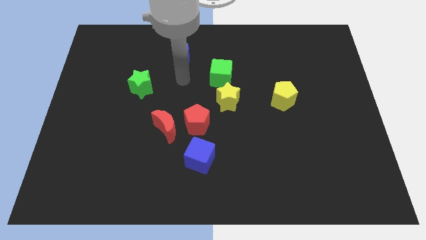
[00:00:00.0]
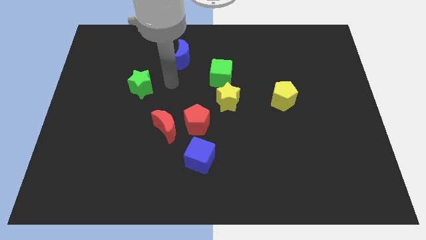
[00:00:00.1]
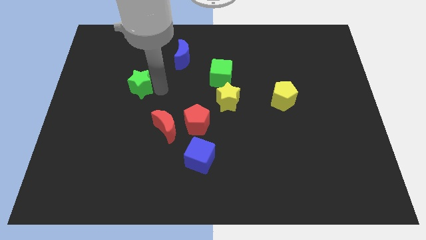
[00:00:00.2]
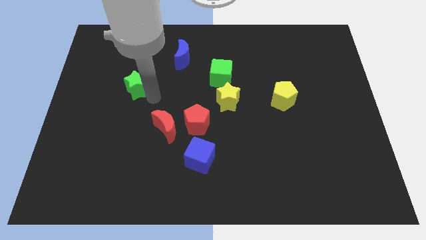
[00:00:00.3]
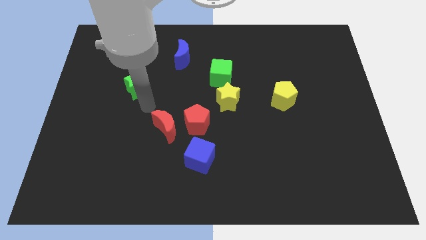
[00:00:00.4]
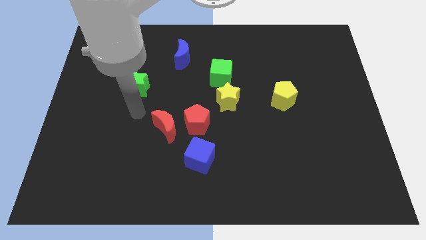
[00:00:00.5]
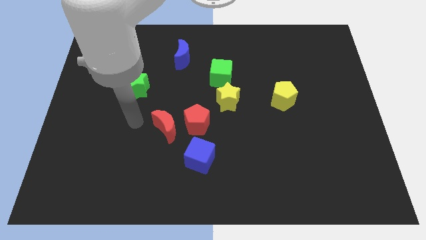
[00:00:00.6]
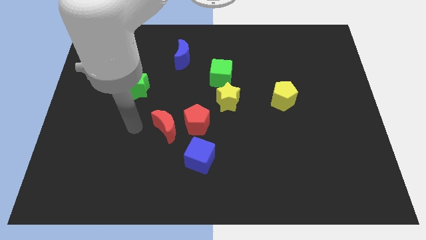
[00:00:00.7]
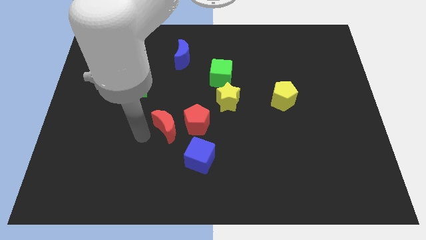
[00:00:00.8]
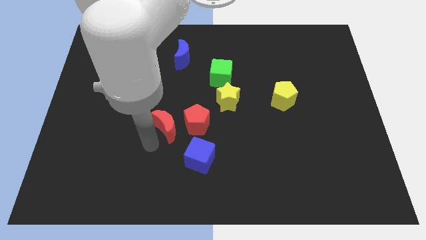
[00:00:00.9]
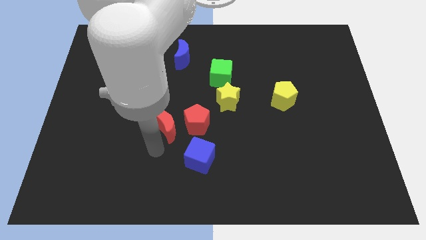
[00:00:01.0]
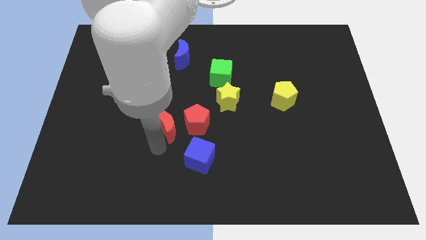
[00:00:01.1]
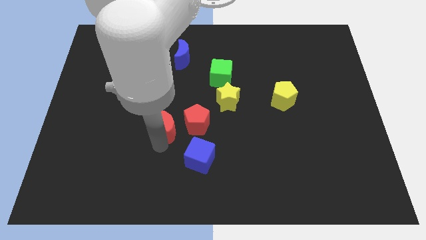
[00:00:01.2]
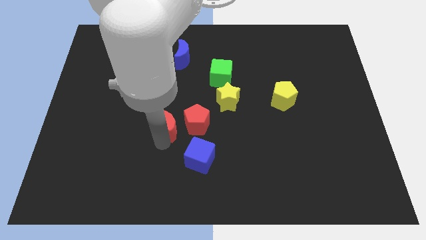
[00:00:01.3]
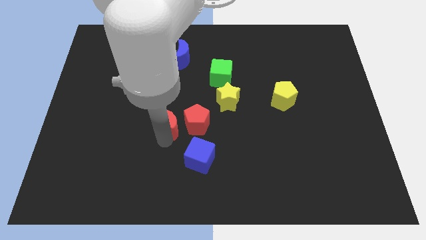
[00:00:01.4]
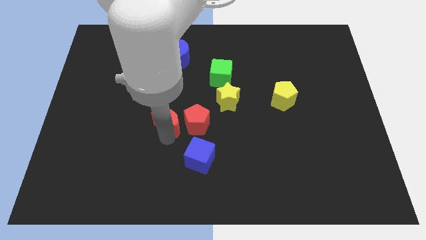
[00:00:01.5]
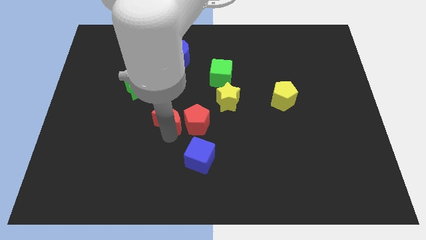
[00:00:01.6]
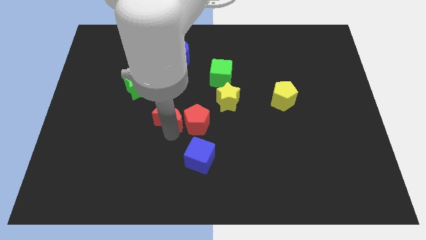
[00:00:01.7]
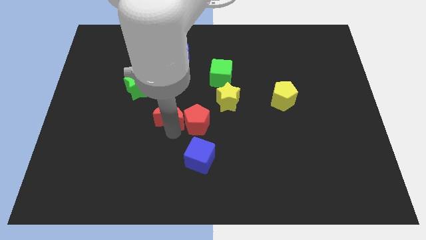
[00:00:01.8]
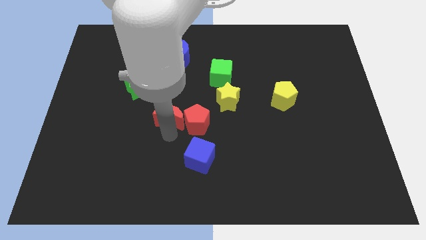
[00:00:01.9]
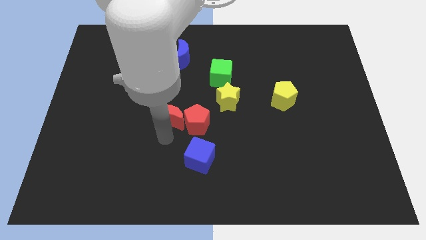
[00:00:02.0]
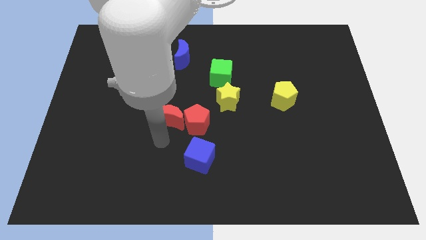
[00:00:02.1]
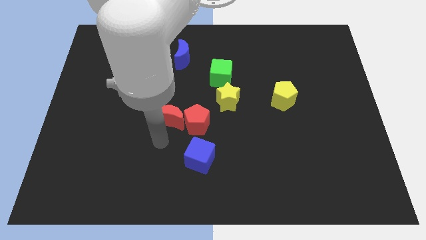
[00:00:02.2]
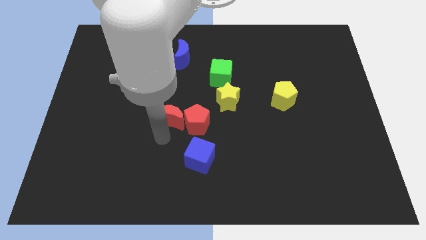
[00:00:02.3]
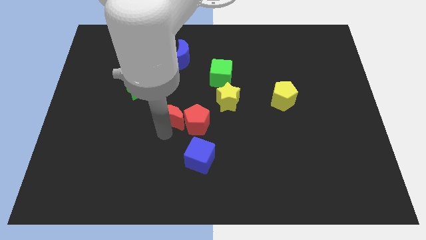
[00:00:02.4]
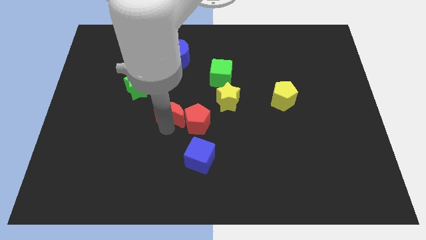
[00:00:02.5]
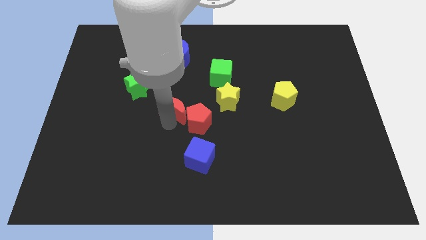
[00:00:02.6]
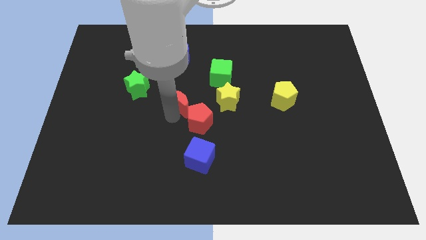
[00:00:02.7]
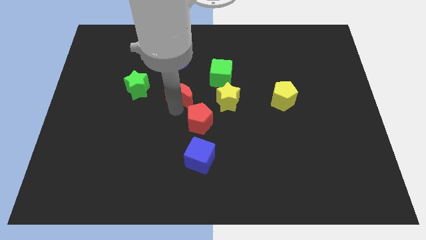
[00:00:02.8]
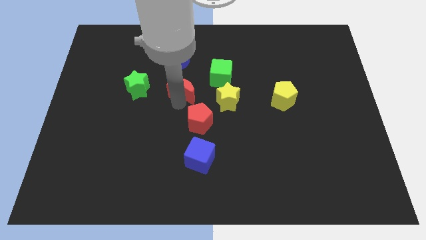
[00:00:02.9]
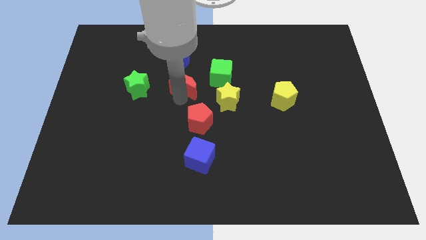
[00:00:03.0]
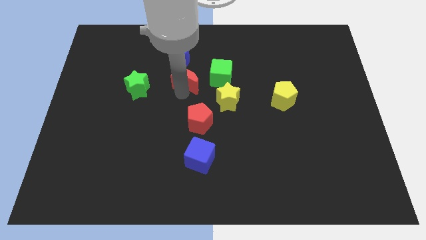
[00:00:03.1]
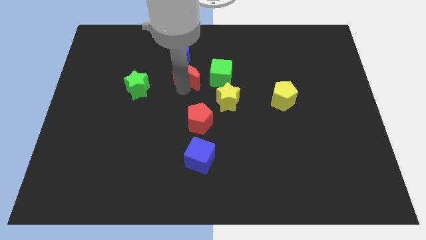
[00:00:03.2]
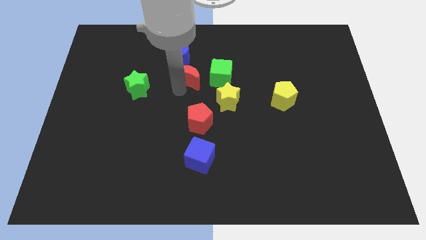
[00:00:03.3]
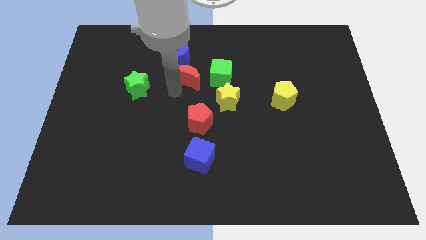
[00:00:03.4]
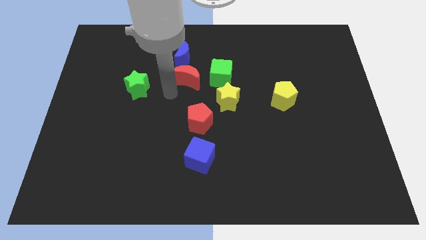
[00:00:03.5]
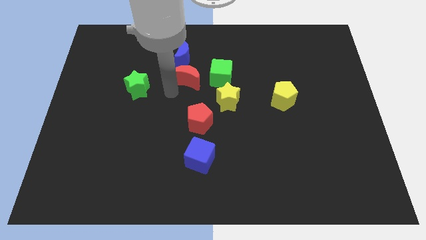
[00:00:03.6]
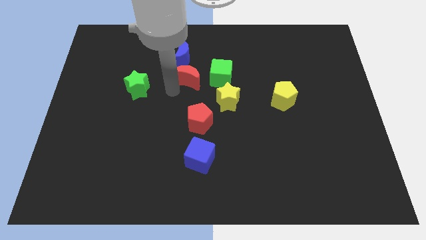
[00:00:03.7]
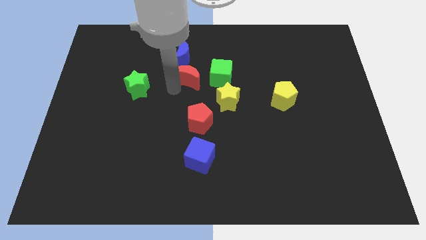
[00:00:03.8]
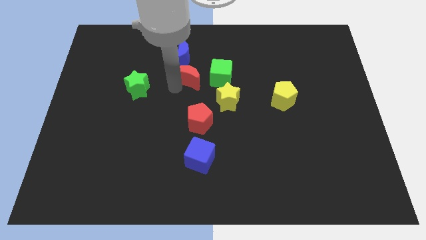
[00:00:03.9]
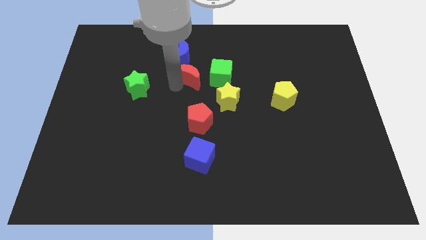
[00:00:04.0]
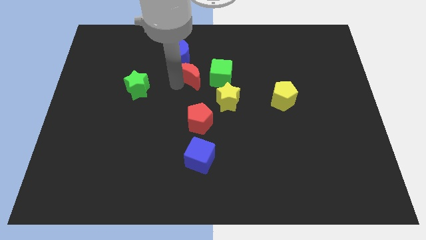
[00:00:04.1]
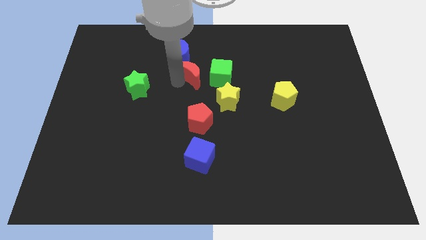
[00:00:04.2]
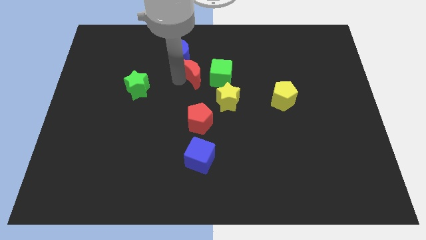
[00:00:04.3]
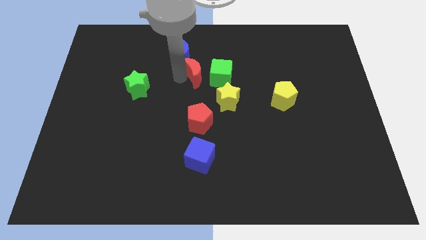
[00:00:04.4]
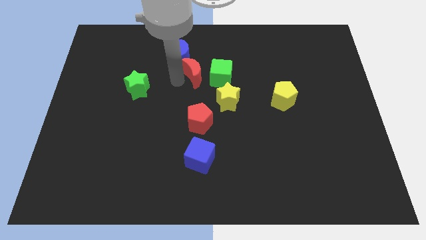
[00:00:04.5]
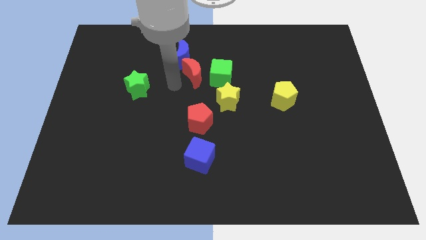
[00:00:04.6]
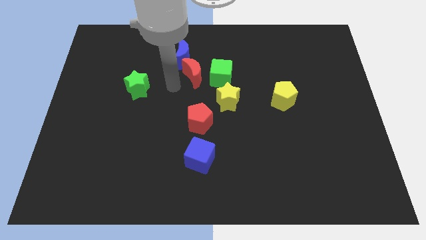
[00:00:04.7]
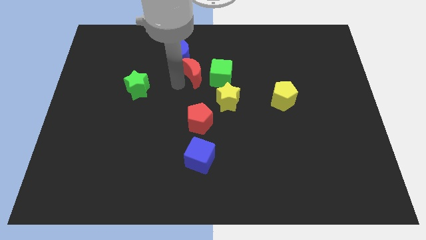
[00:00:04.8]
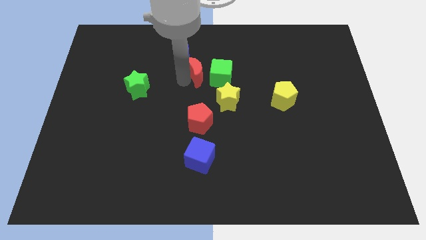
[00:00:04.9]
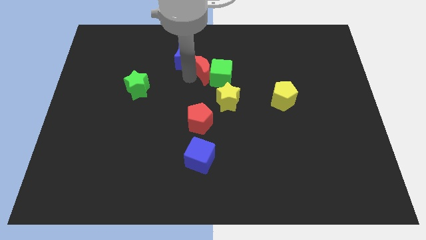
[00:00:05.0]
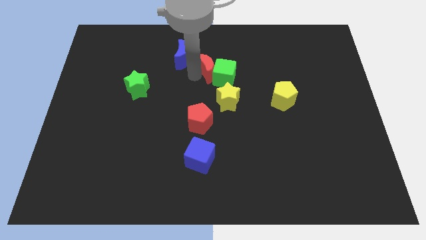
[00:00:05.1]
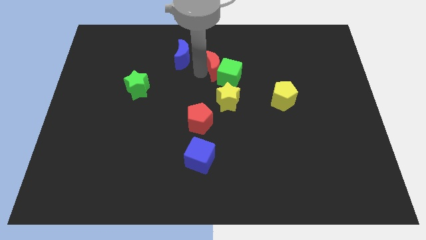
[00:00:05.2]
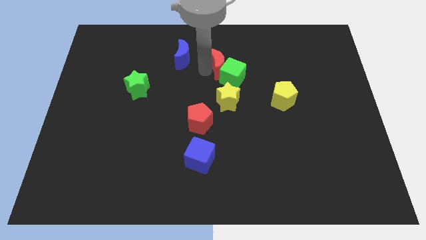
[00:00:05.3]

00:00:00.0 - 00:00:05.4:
move the red moon up and then to the right

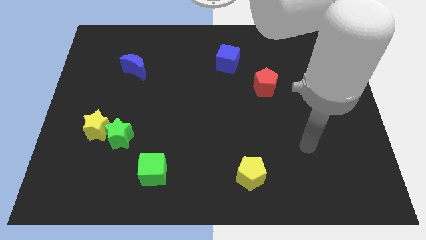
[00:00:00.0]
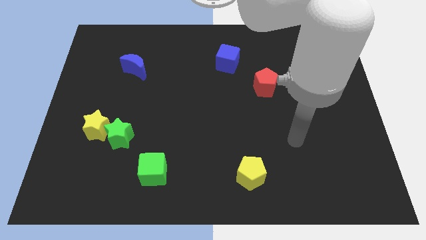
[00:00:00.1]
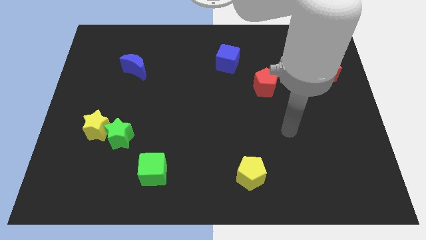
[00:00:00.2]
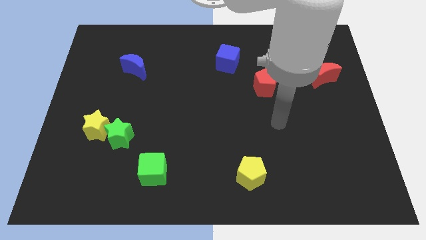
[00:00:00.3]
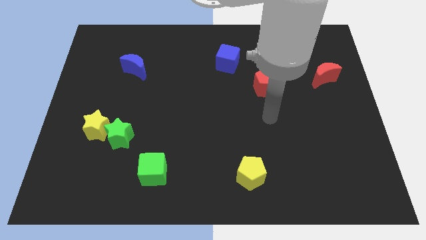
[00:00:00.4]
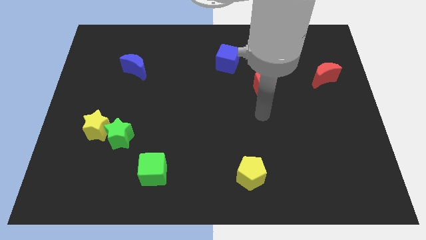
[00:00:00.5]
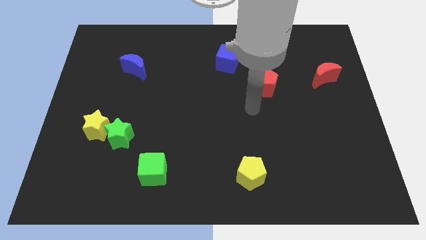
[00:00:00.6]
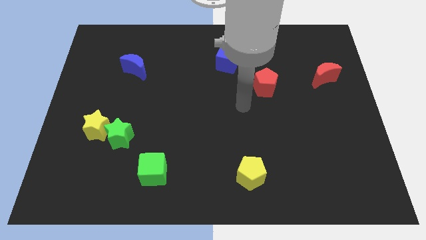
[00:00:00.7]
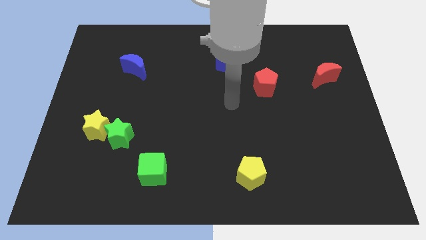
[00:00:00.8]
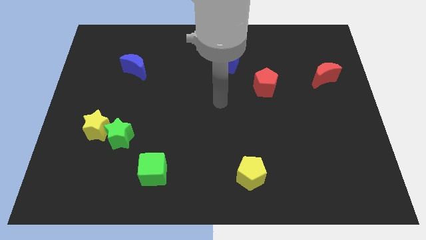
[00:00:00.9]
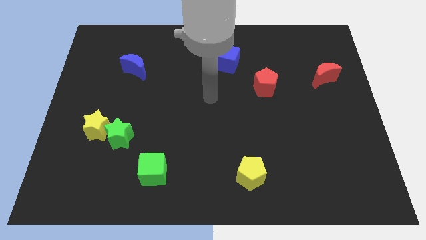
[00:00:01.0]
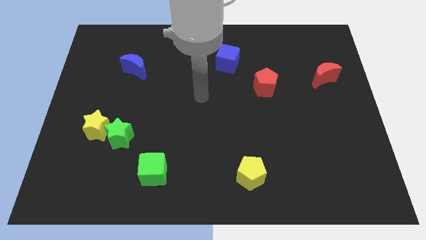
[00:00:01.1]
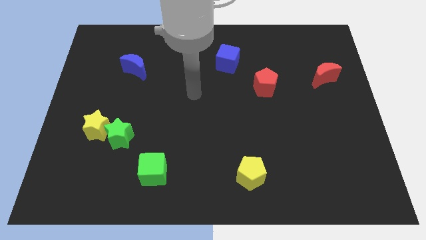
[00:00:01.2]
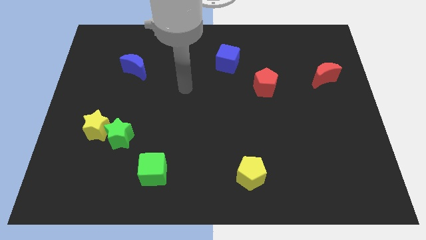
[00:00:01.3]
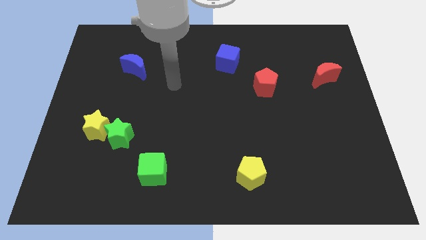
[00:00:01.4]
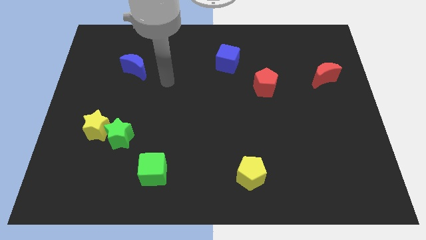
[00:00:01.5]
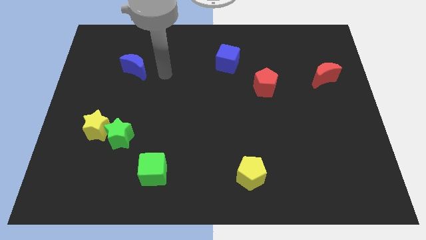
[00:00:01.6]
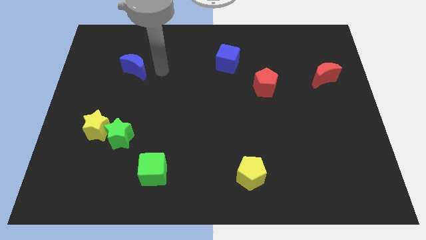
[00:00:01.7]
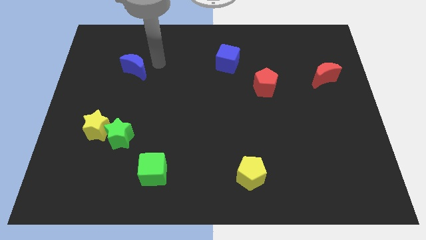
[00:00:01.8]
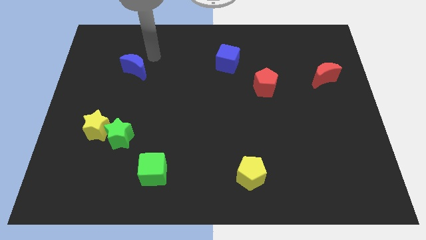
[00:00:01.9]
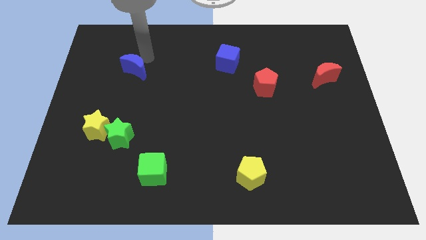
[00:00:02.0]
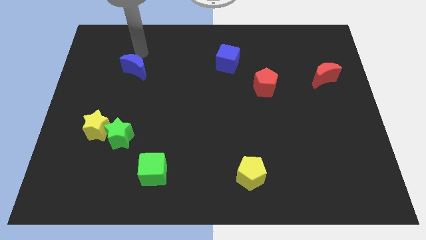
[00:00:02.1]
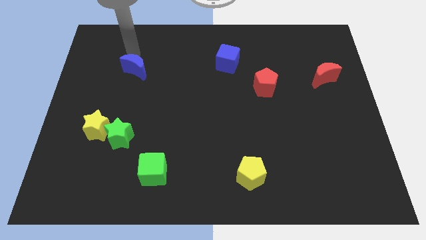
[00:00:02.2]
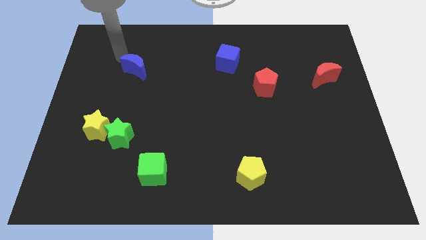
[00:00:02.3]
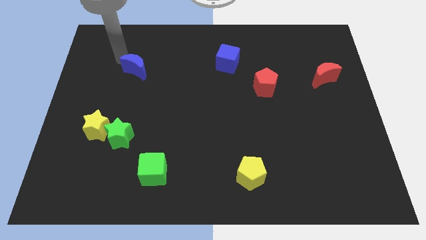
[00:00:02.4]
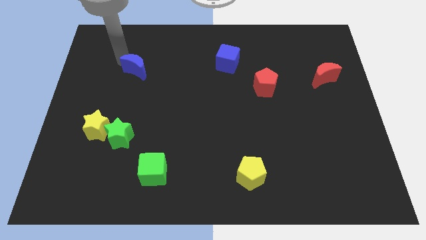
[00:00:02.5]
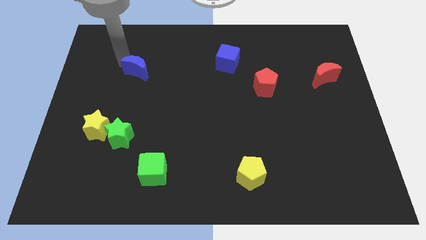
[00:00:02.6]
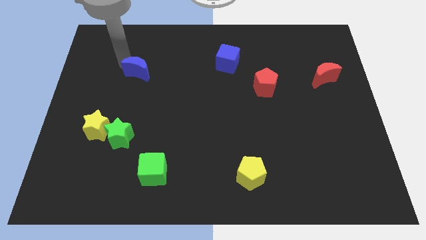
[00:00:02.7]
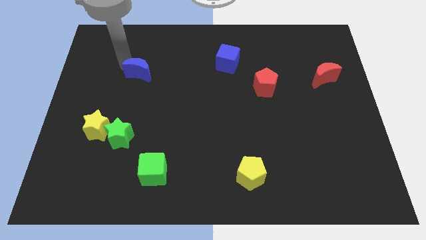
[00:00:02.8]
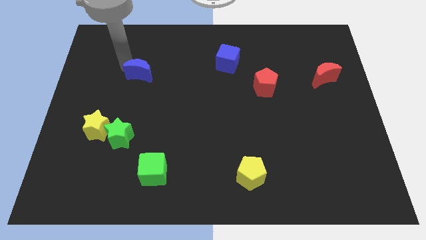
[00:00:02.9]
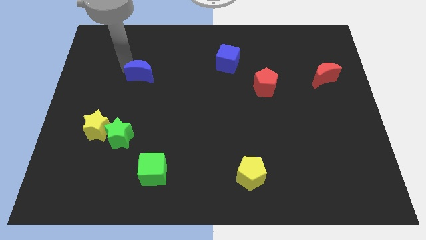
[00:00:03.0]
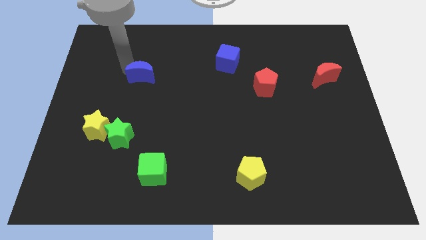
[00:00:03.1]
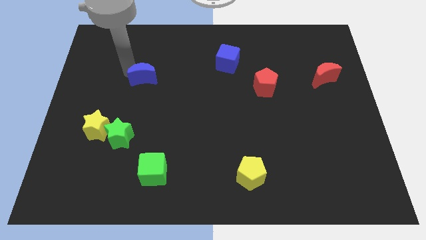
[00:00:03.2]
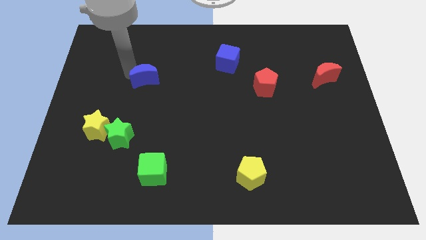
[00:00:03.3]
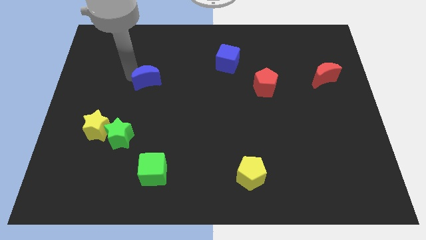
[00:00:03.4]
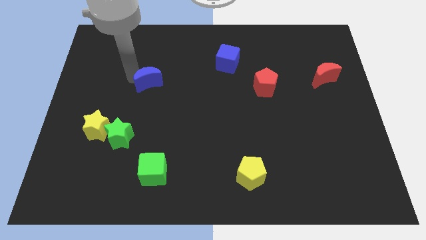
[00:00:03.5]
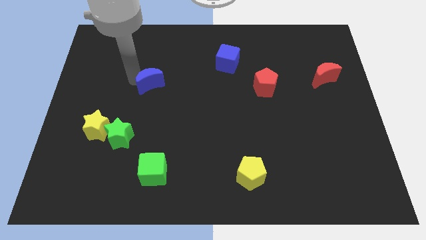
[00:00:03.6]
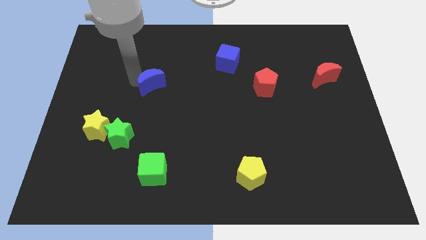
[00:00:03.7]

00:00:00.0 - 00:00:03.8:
slide the blue moon down and right somewhat
